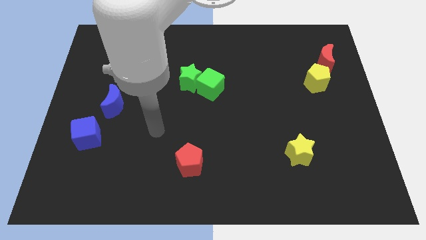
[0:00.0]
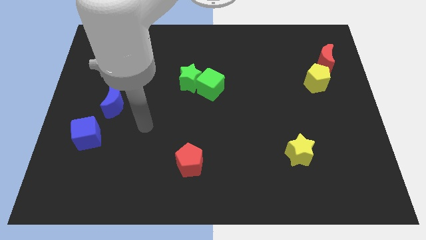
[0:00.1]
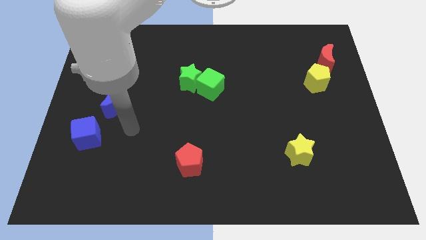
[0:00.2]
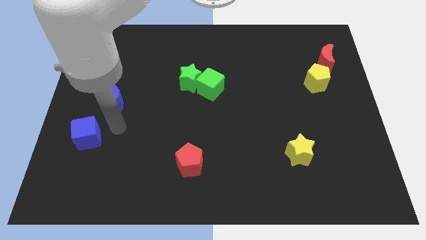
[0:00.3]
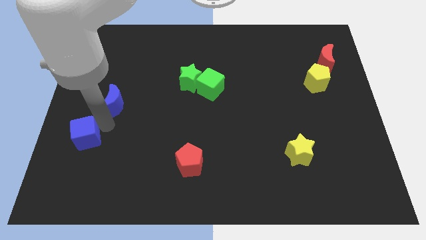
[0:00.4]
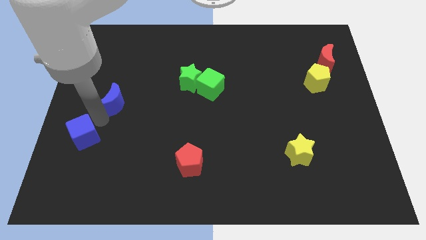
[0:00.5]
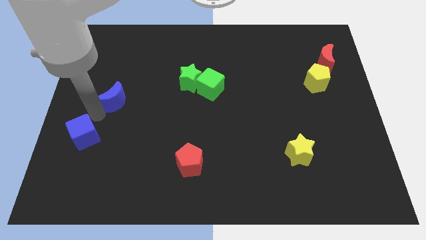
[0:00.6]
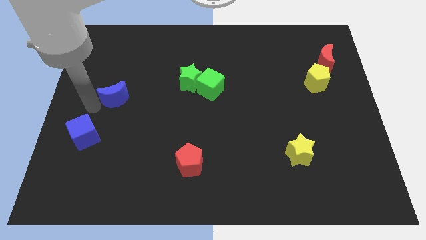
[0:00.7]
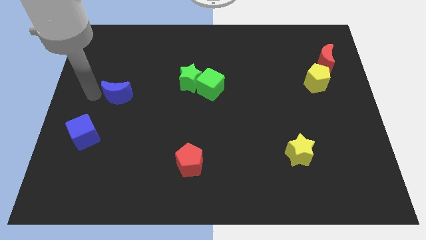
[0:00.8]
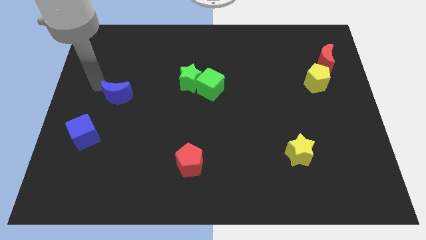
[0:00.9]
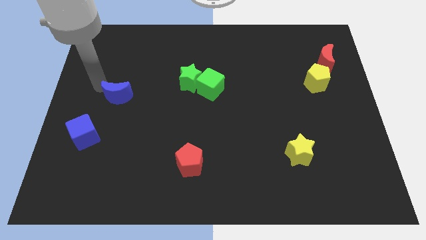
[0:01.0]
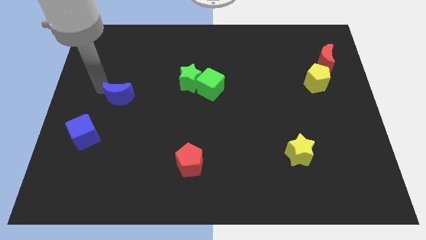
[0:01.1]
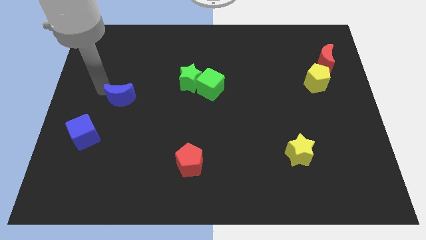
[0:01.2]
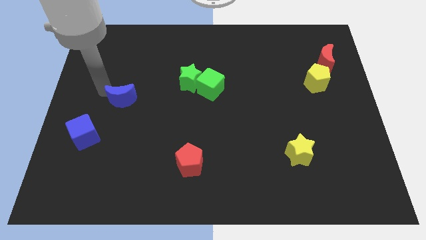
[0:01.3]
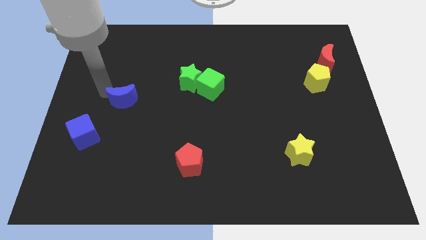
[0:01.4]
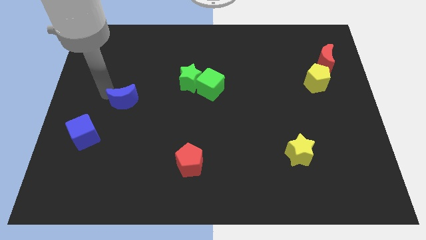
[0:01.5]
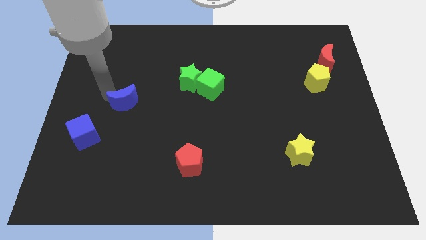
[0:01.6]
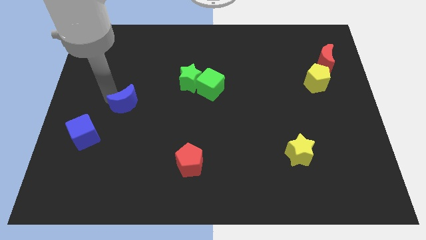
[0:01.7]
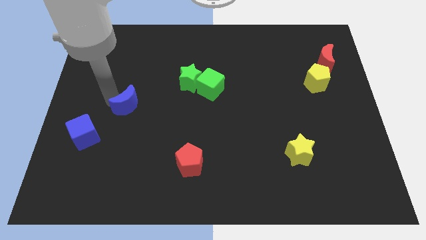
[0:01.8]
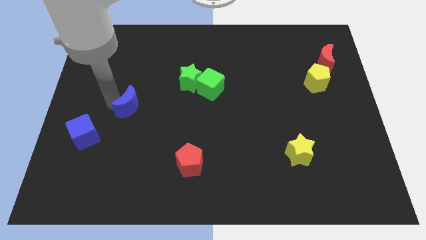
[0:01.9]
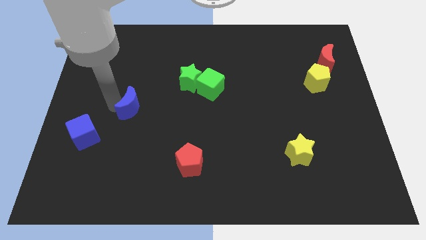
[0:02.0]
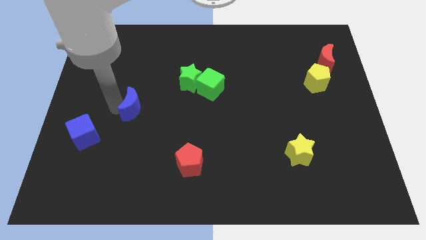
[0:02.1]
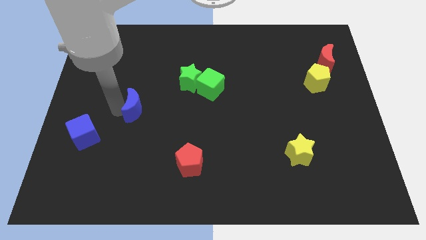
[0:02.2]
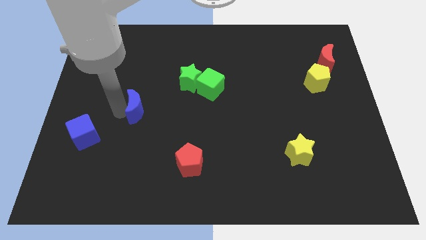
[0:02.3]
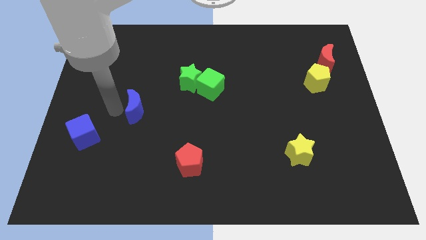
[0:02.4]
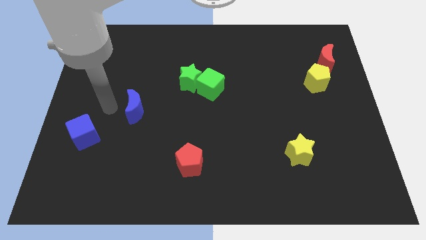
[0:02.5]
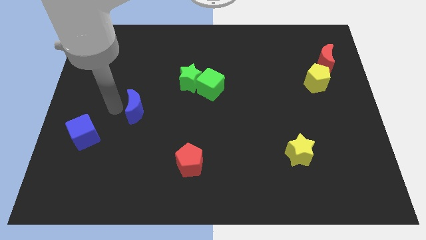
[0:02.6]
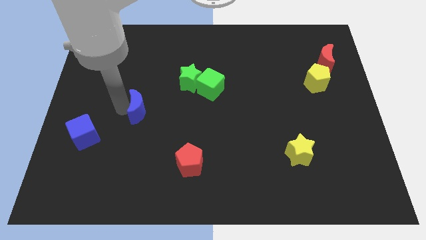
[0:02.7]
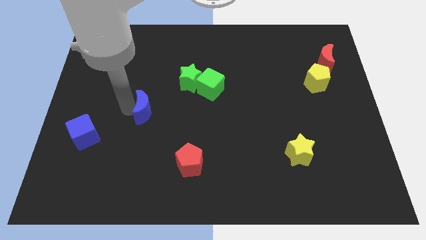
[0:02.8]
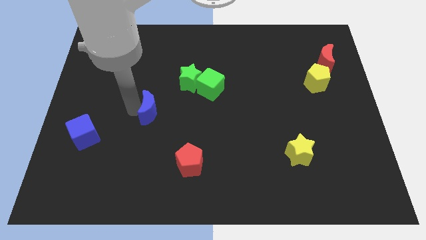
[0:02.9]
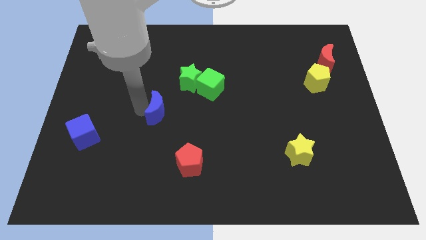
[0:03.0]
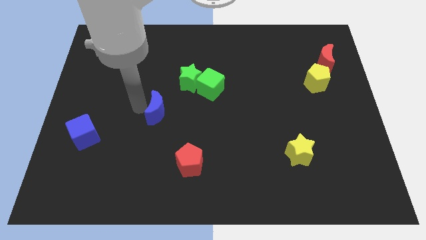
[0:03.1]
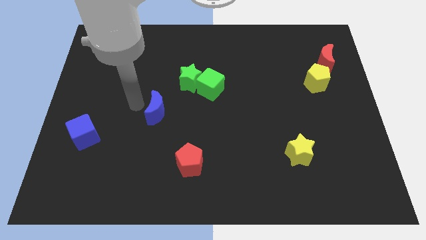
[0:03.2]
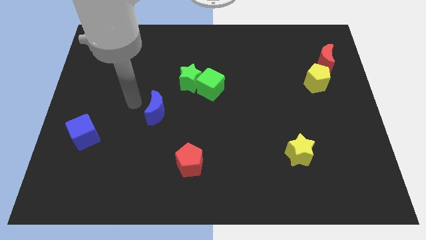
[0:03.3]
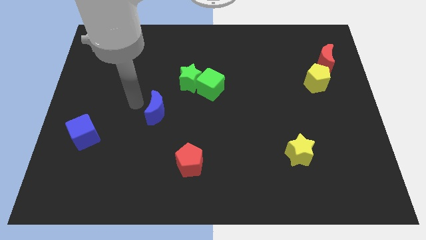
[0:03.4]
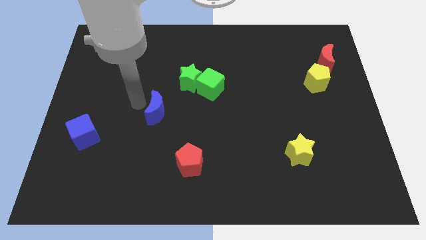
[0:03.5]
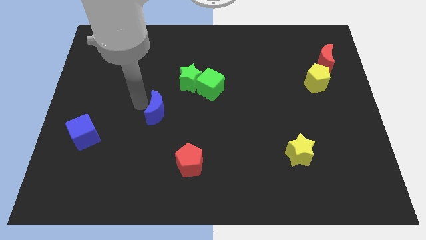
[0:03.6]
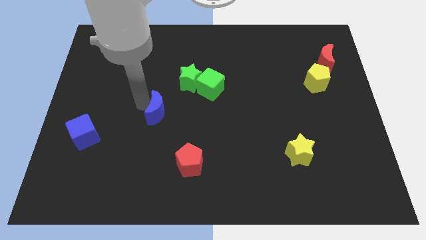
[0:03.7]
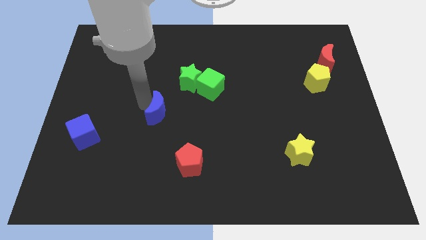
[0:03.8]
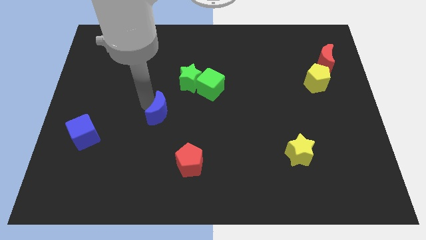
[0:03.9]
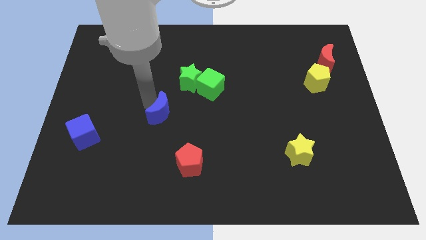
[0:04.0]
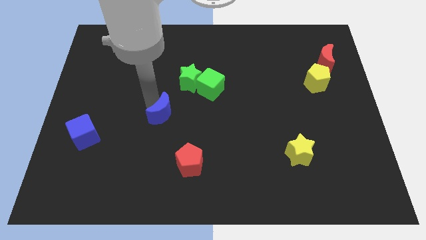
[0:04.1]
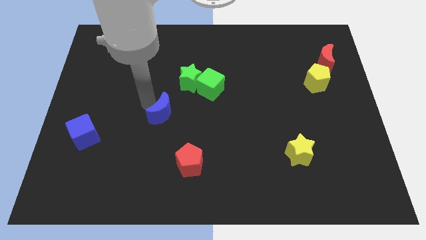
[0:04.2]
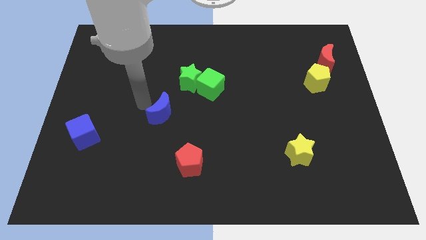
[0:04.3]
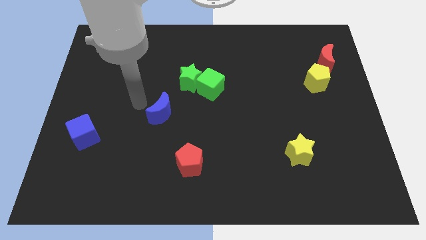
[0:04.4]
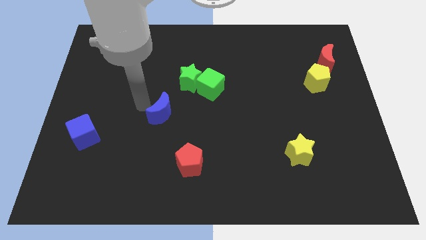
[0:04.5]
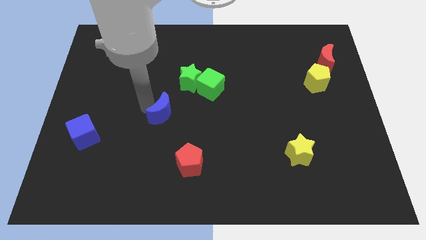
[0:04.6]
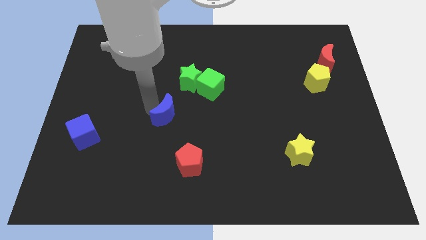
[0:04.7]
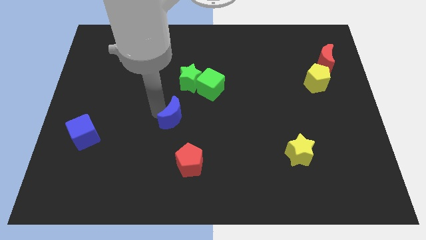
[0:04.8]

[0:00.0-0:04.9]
put the blue moon above the red pentagon

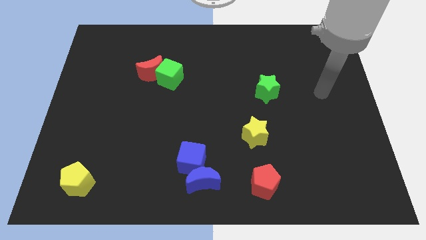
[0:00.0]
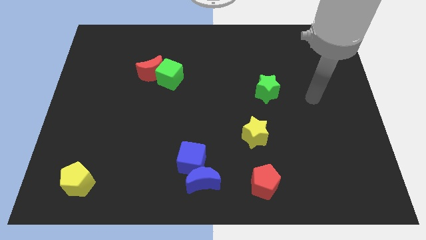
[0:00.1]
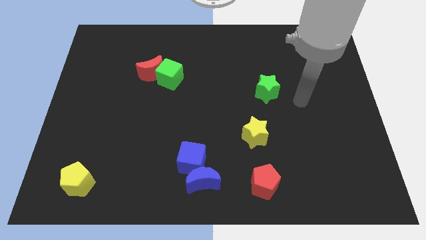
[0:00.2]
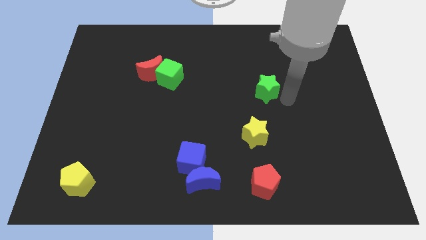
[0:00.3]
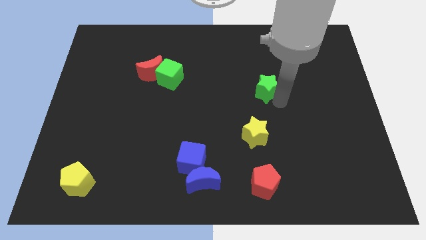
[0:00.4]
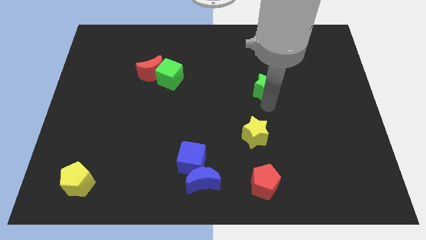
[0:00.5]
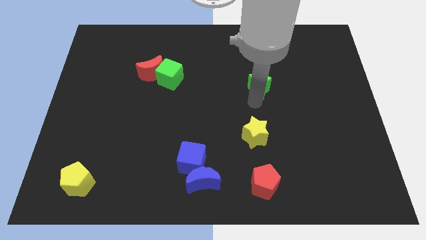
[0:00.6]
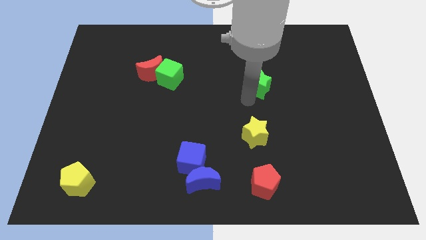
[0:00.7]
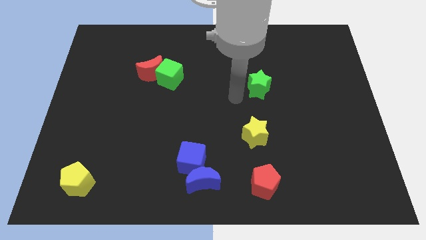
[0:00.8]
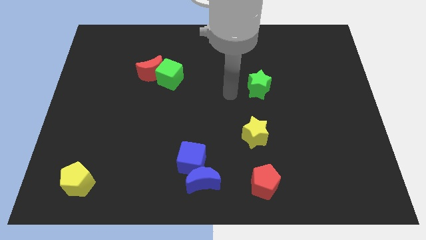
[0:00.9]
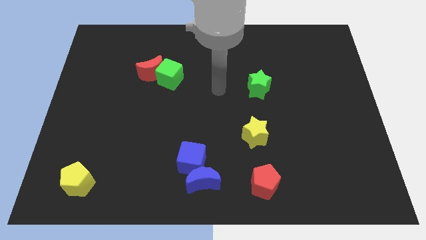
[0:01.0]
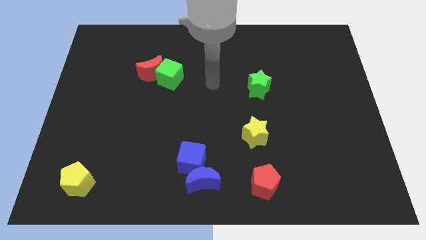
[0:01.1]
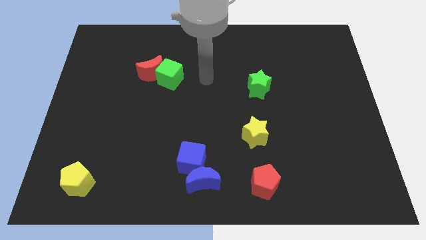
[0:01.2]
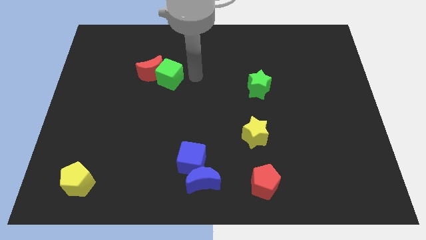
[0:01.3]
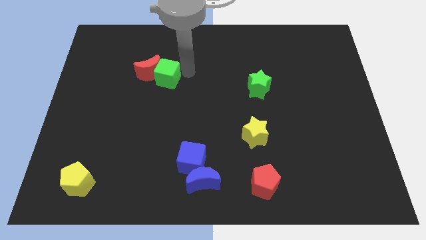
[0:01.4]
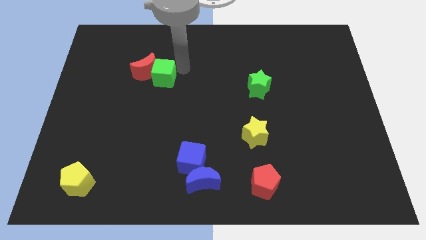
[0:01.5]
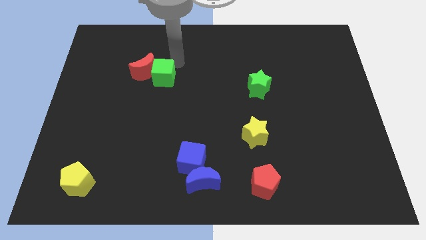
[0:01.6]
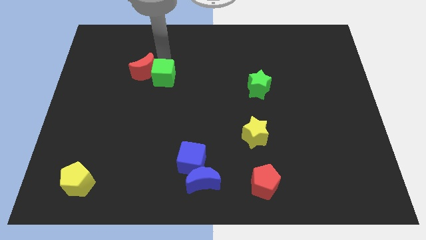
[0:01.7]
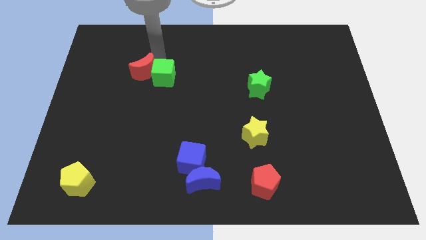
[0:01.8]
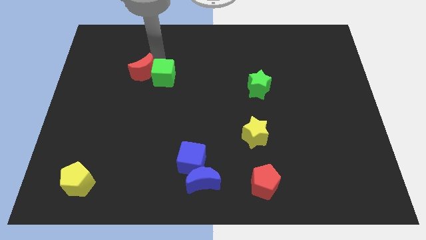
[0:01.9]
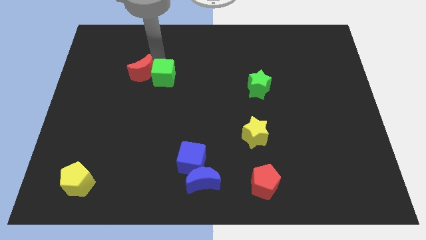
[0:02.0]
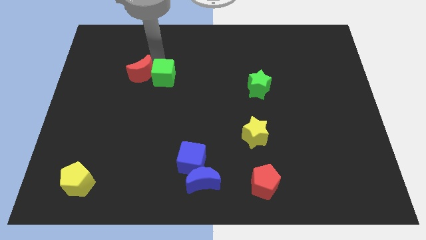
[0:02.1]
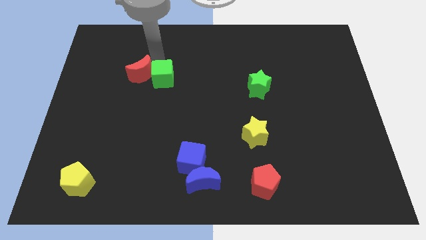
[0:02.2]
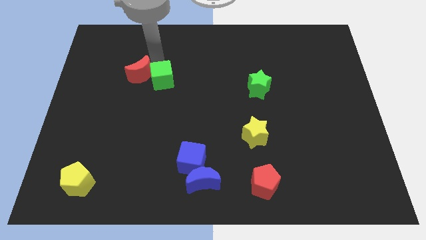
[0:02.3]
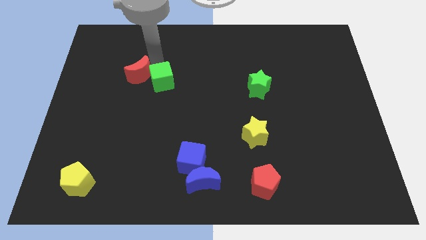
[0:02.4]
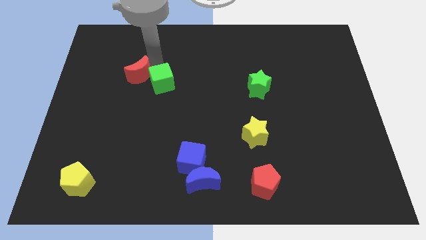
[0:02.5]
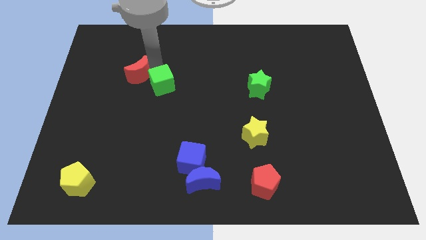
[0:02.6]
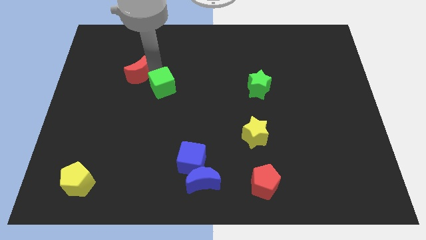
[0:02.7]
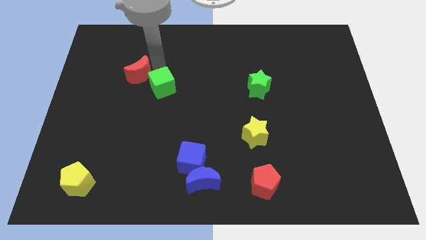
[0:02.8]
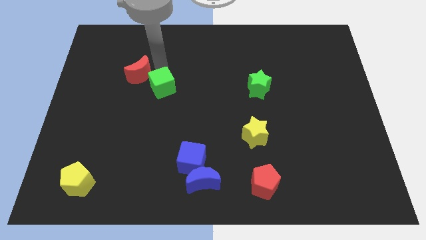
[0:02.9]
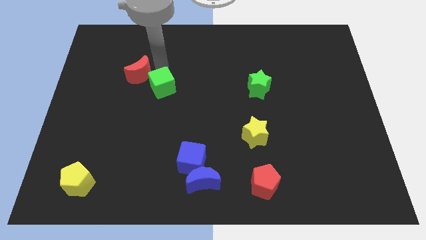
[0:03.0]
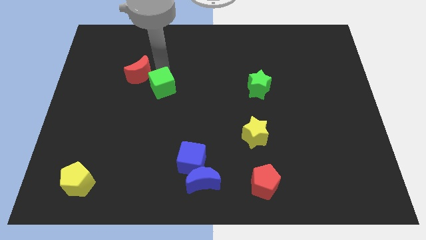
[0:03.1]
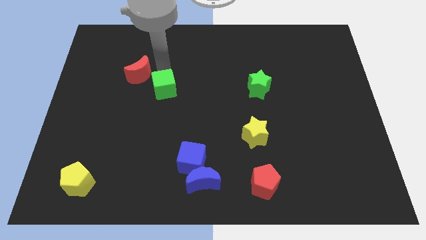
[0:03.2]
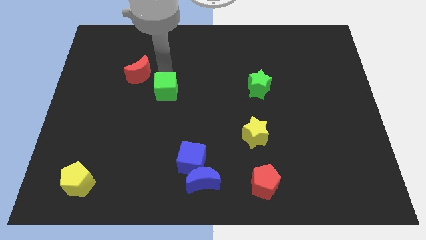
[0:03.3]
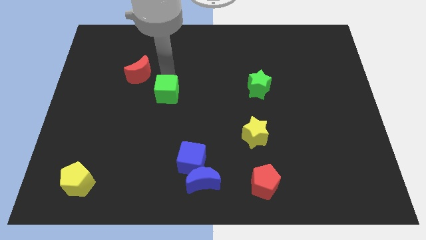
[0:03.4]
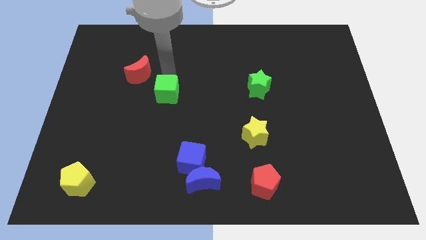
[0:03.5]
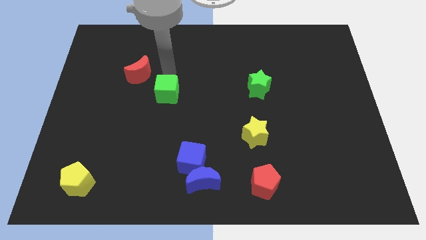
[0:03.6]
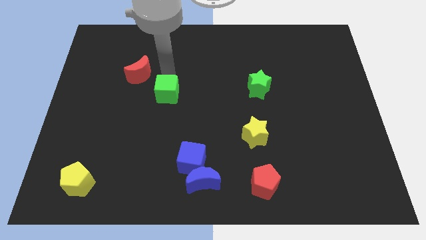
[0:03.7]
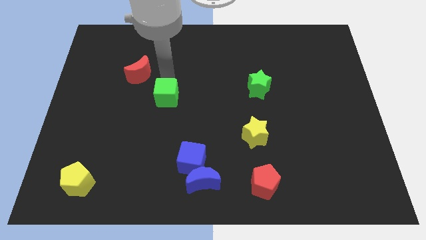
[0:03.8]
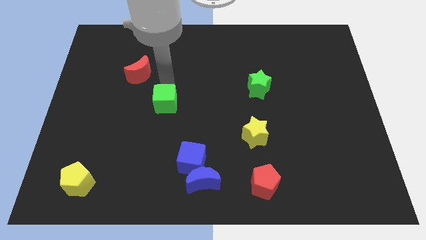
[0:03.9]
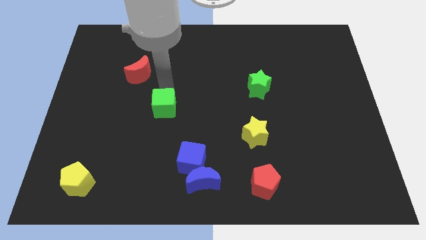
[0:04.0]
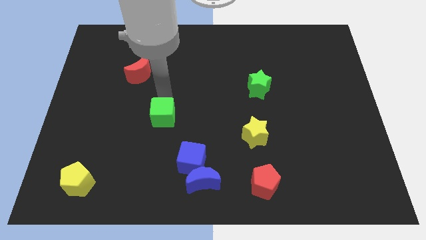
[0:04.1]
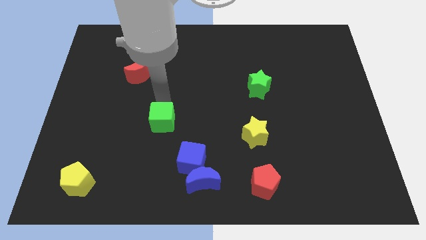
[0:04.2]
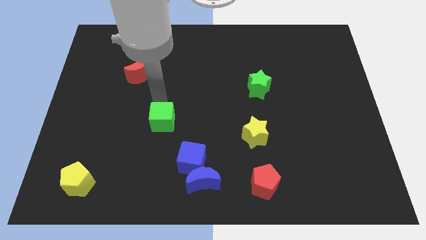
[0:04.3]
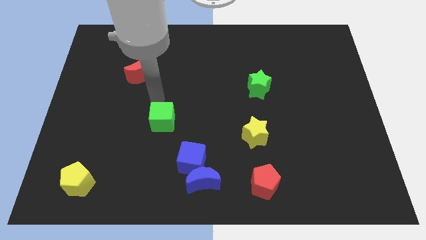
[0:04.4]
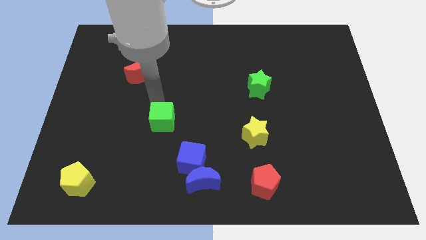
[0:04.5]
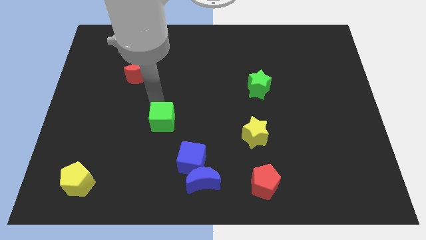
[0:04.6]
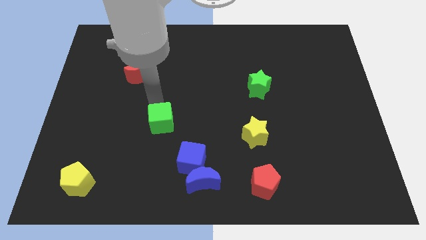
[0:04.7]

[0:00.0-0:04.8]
push the green cube diagonally up and to the left of the blue cube
